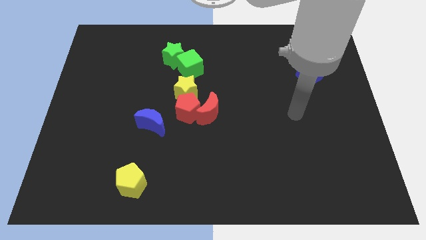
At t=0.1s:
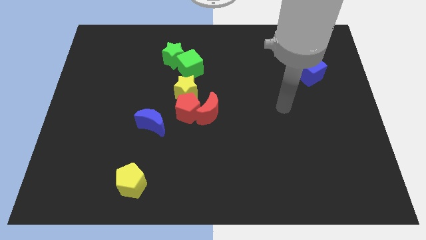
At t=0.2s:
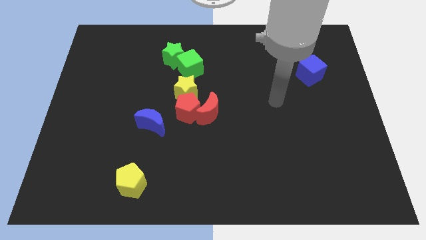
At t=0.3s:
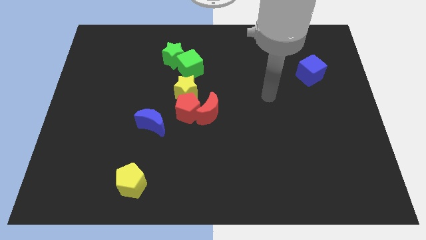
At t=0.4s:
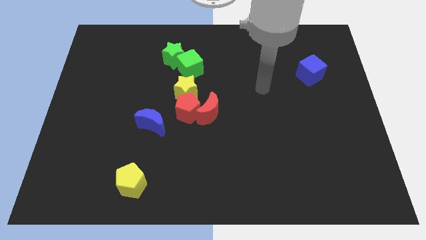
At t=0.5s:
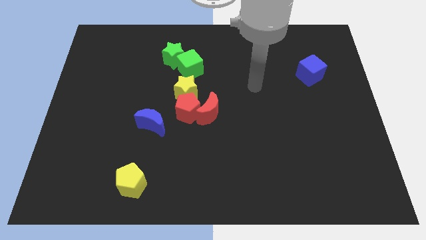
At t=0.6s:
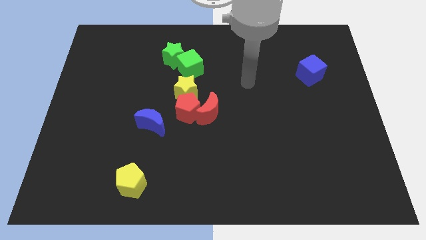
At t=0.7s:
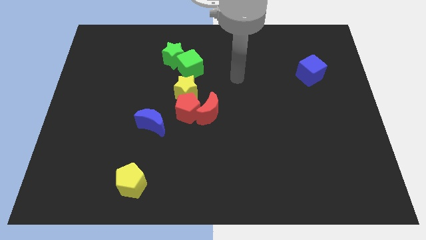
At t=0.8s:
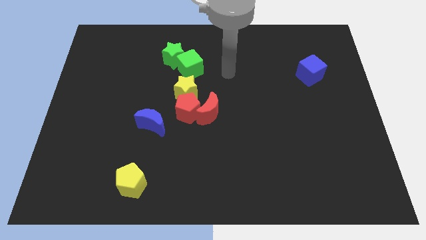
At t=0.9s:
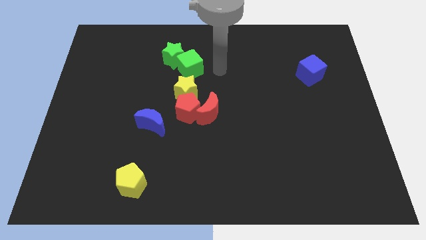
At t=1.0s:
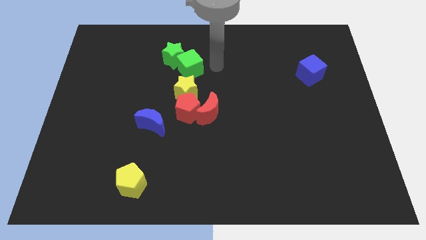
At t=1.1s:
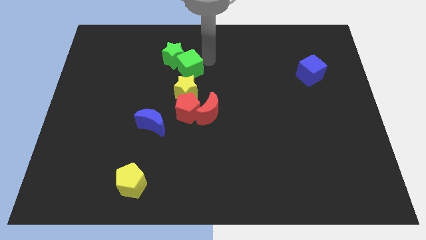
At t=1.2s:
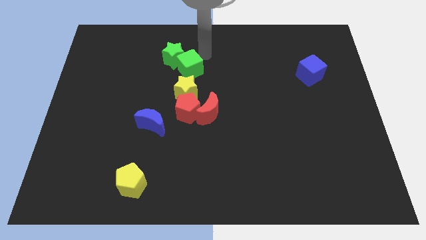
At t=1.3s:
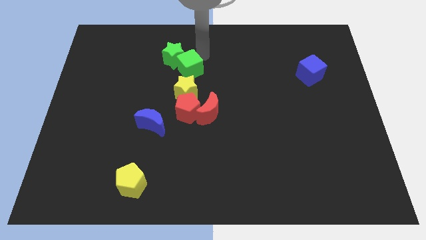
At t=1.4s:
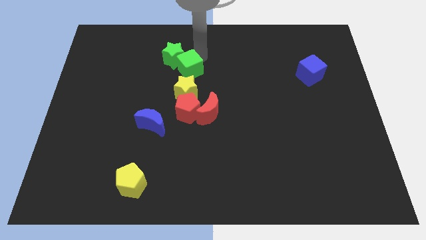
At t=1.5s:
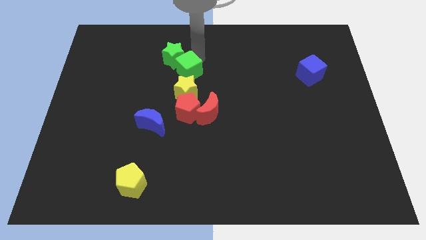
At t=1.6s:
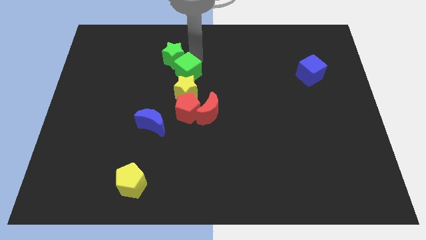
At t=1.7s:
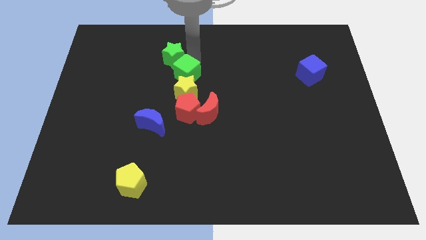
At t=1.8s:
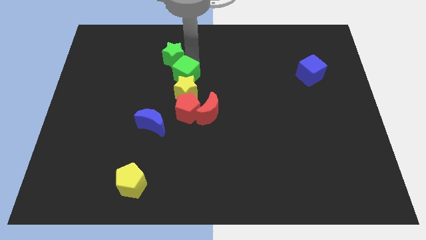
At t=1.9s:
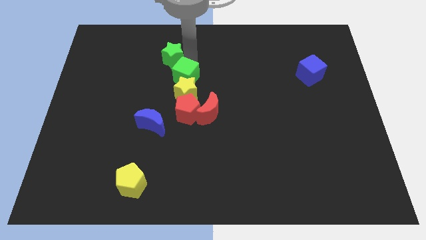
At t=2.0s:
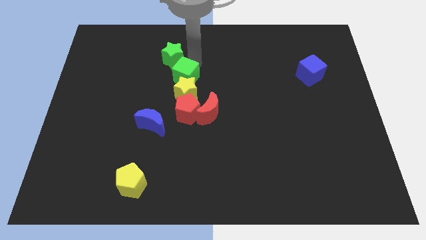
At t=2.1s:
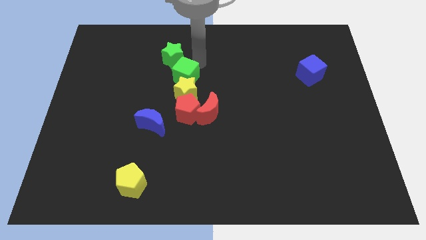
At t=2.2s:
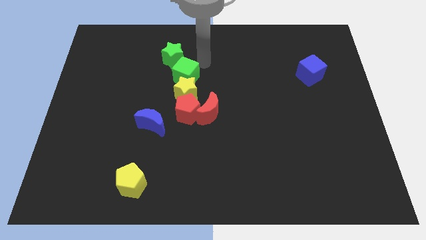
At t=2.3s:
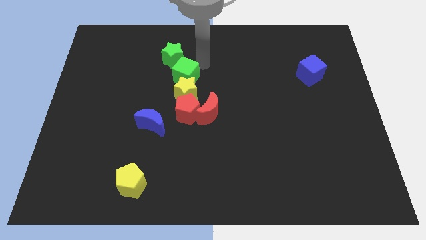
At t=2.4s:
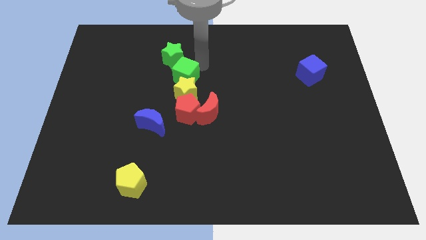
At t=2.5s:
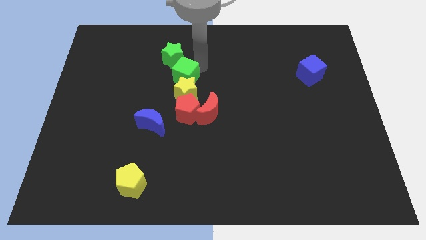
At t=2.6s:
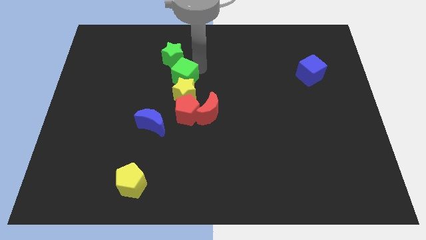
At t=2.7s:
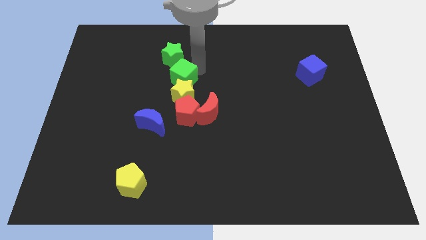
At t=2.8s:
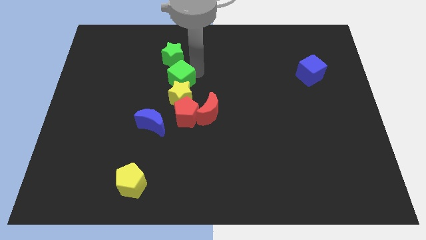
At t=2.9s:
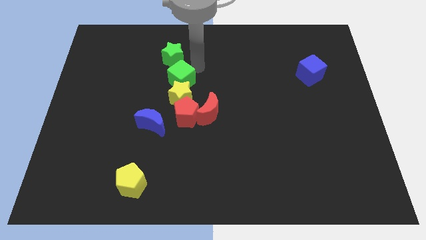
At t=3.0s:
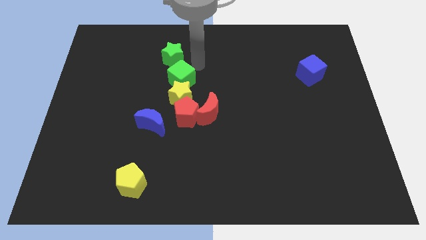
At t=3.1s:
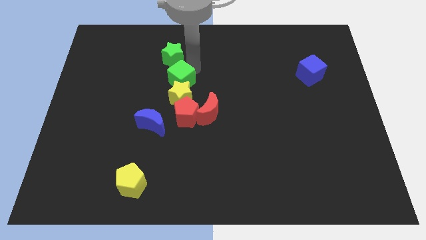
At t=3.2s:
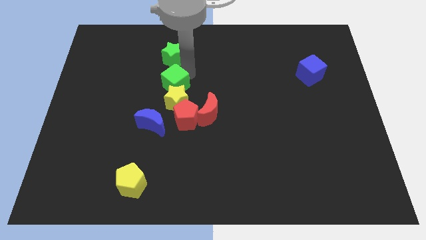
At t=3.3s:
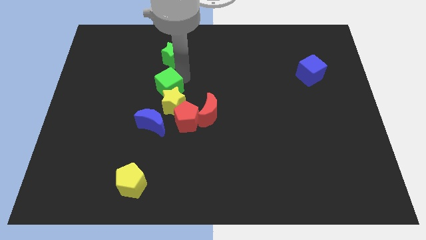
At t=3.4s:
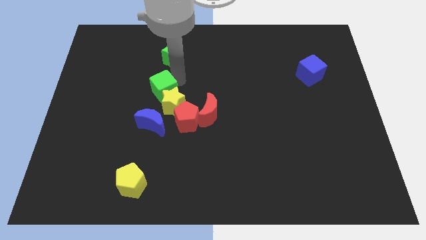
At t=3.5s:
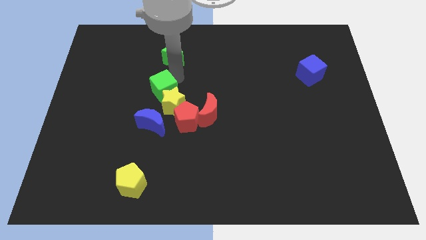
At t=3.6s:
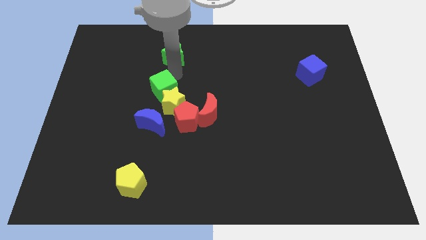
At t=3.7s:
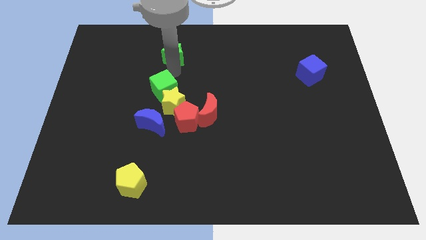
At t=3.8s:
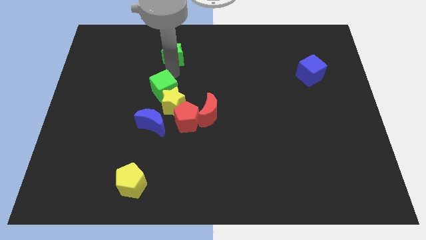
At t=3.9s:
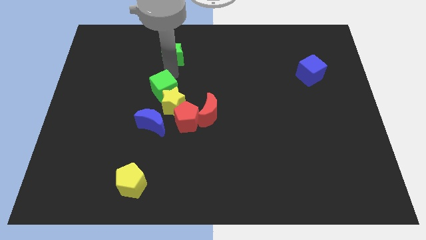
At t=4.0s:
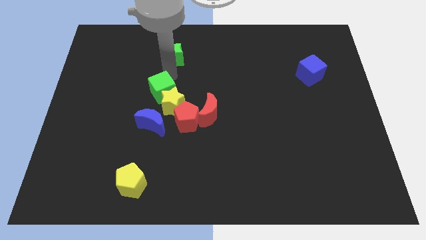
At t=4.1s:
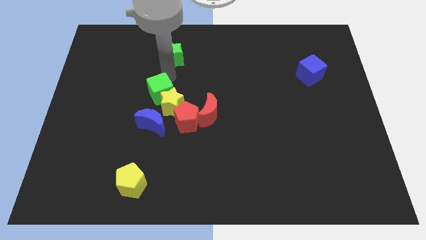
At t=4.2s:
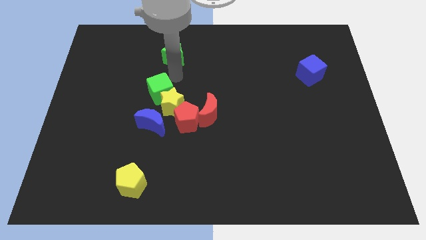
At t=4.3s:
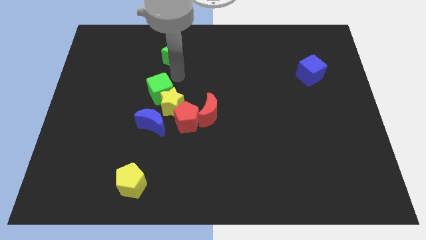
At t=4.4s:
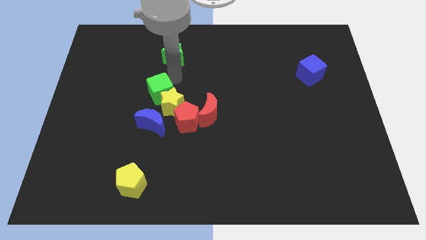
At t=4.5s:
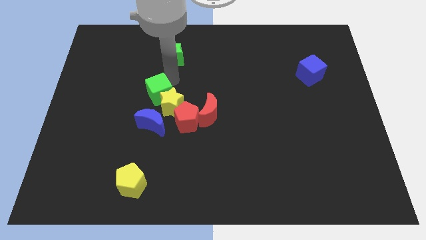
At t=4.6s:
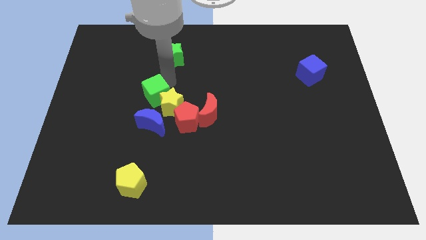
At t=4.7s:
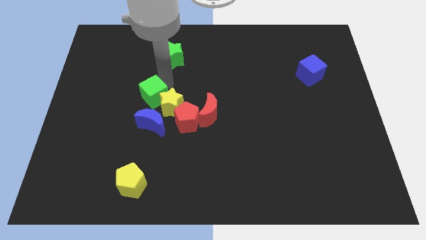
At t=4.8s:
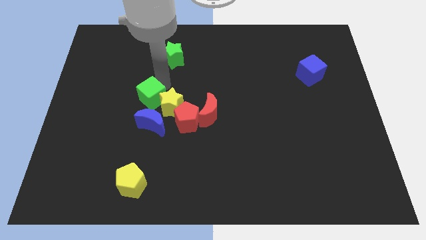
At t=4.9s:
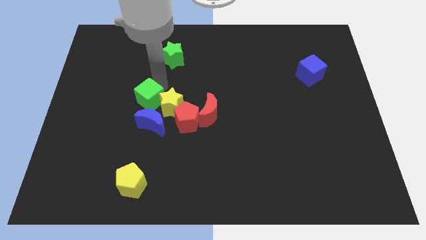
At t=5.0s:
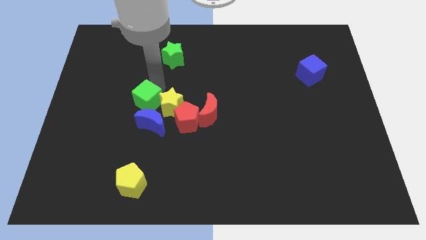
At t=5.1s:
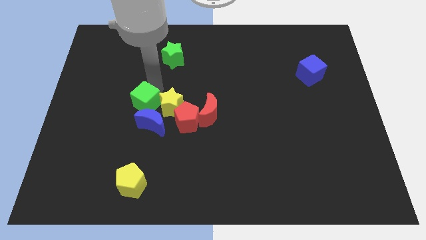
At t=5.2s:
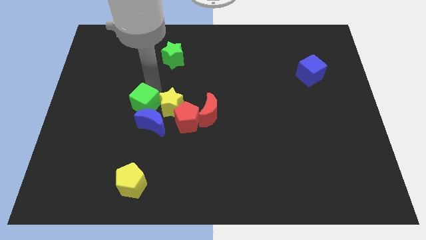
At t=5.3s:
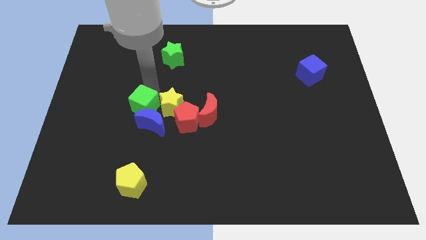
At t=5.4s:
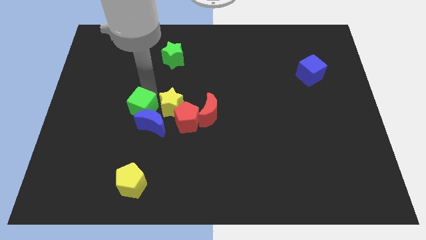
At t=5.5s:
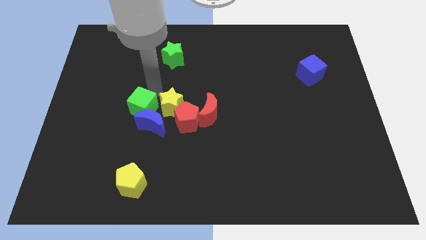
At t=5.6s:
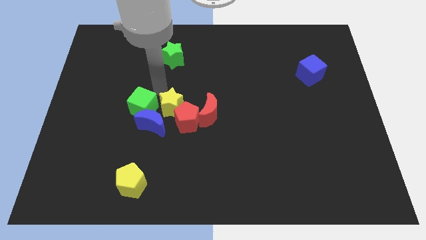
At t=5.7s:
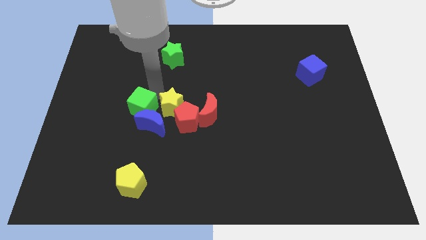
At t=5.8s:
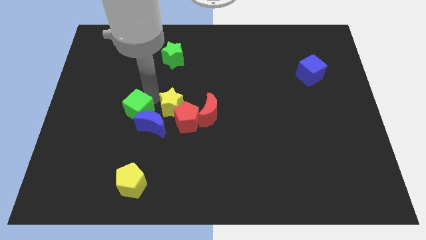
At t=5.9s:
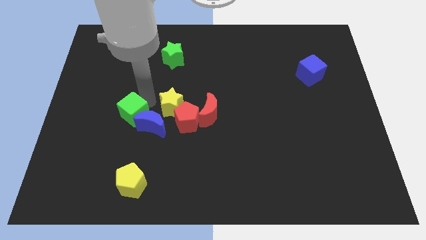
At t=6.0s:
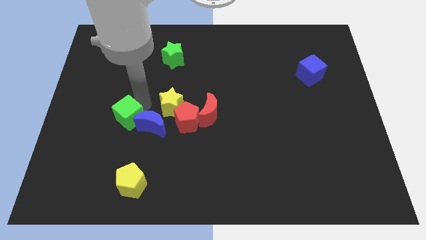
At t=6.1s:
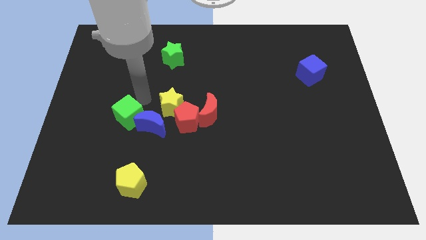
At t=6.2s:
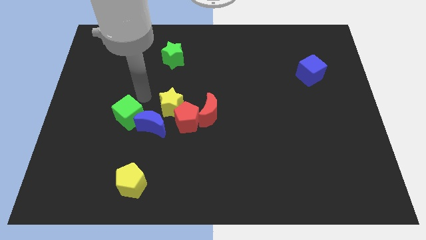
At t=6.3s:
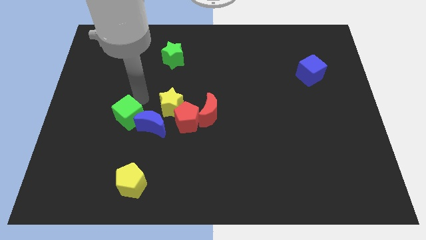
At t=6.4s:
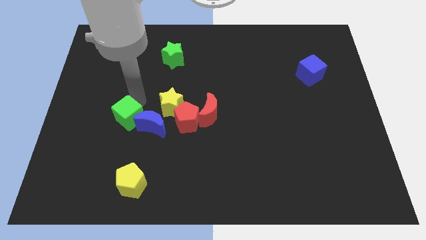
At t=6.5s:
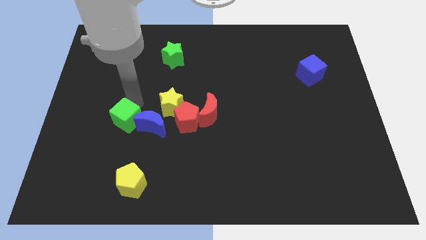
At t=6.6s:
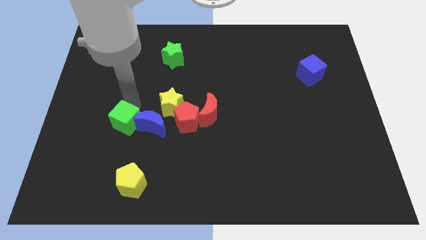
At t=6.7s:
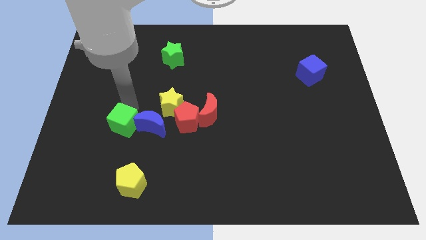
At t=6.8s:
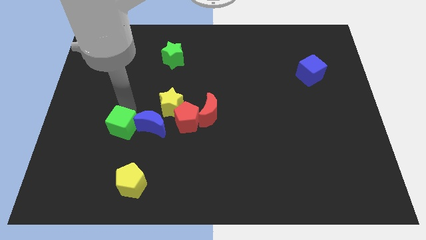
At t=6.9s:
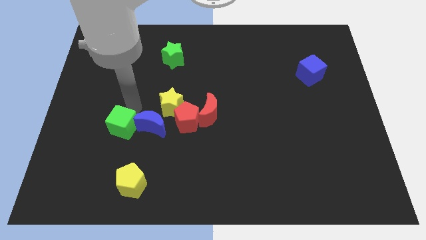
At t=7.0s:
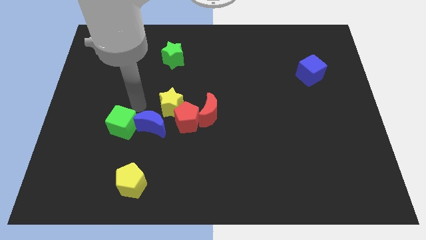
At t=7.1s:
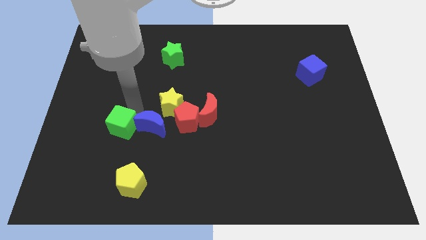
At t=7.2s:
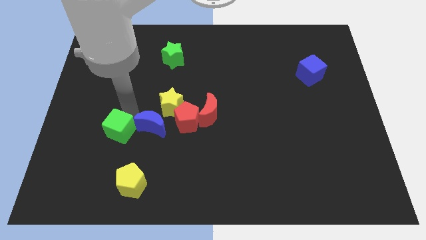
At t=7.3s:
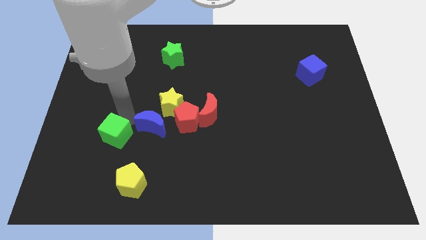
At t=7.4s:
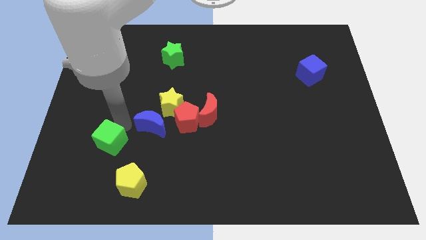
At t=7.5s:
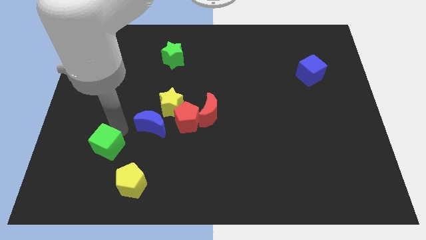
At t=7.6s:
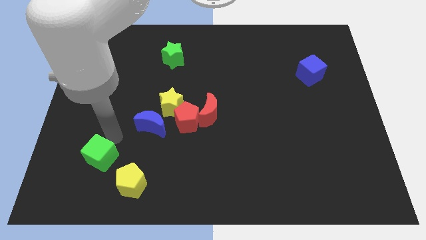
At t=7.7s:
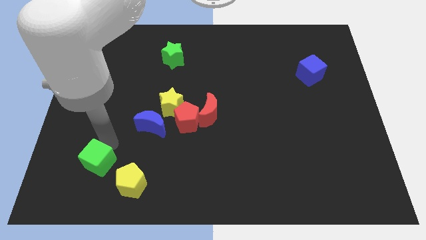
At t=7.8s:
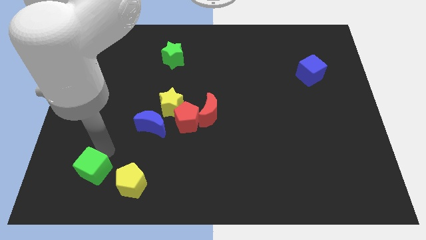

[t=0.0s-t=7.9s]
push the green cube left of the yellow pentagon
